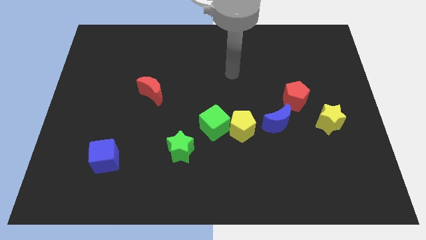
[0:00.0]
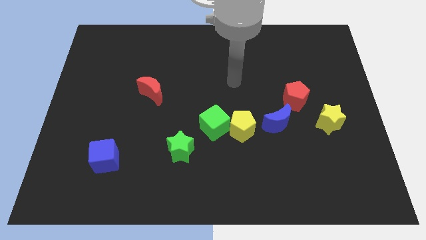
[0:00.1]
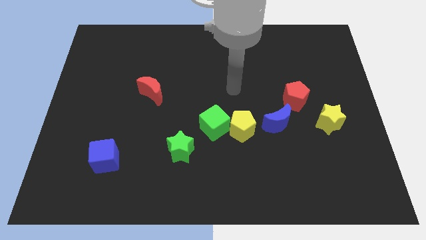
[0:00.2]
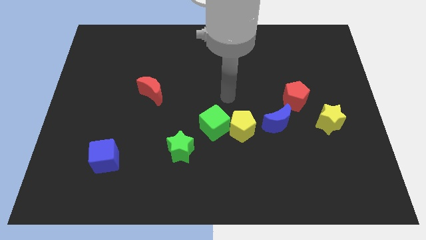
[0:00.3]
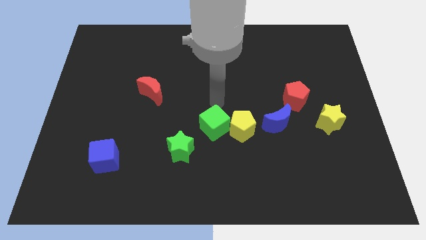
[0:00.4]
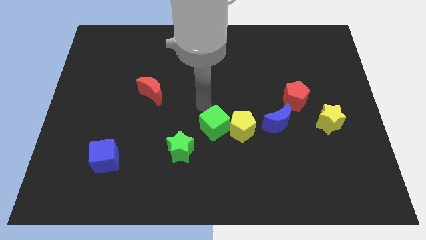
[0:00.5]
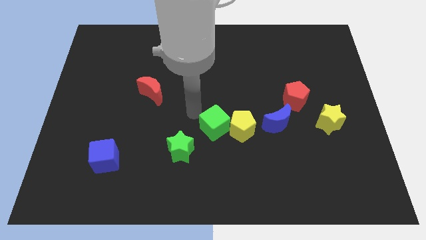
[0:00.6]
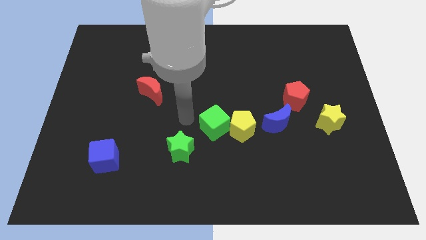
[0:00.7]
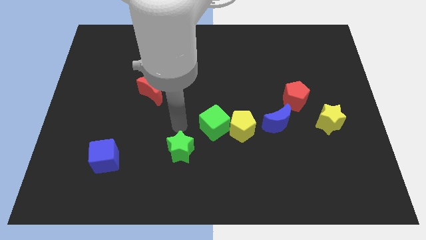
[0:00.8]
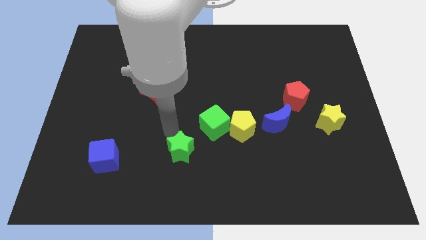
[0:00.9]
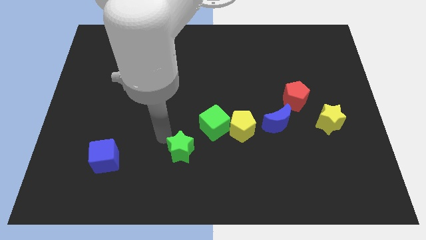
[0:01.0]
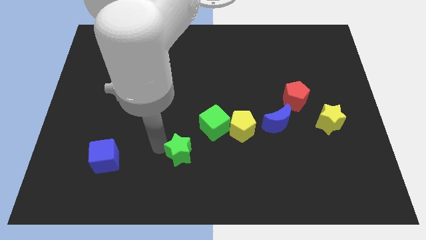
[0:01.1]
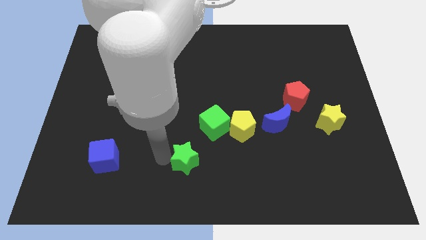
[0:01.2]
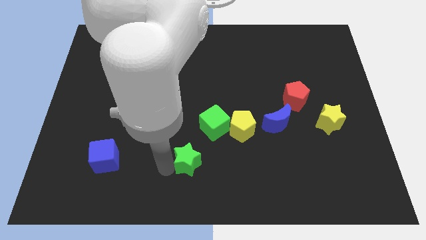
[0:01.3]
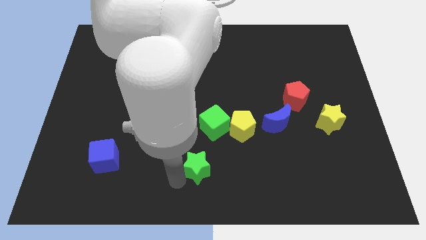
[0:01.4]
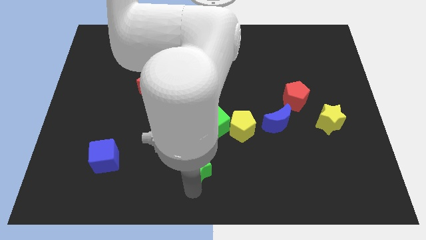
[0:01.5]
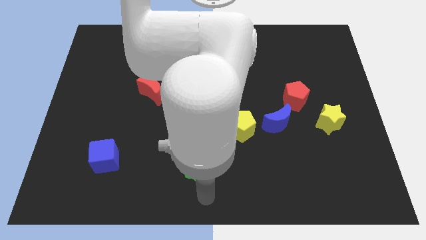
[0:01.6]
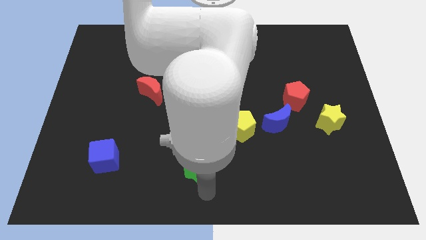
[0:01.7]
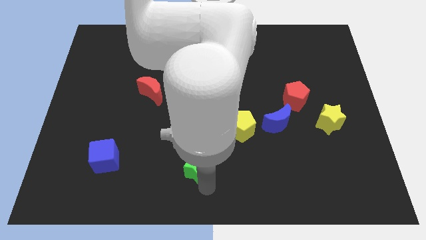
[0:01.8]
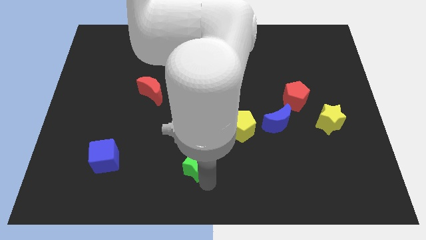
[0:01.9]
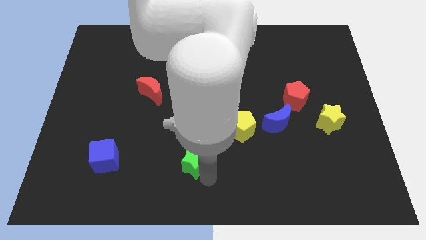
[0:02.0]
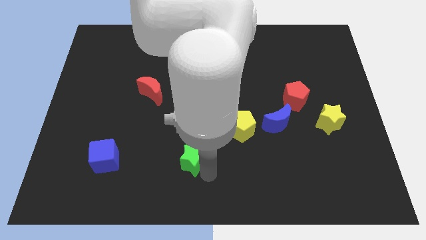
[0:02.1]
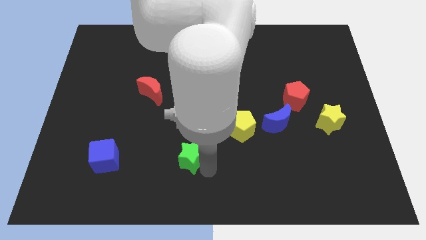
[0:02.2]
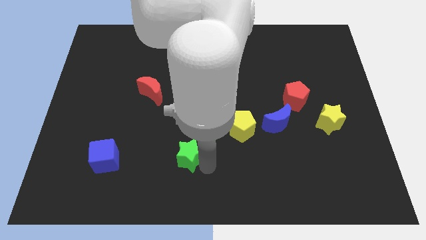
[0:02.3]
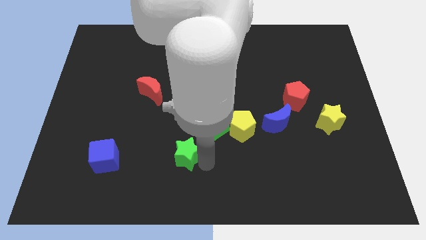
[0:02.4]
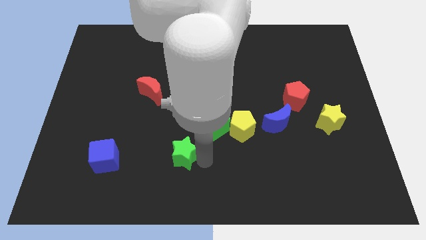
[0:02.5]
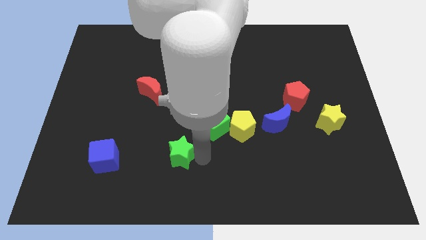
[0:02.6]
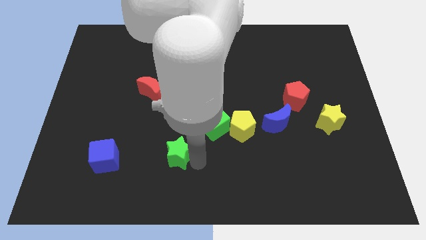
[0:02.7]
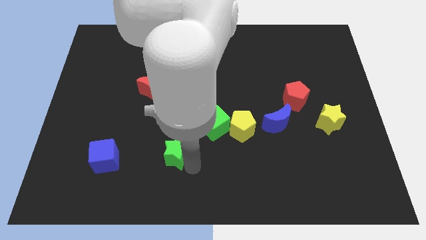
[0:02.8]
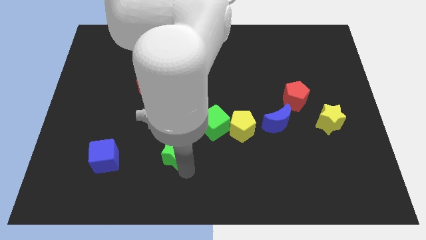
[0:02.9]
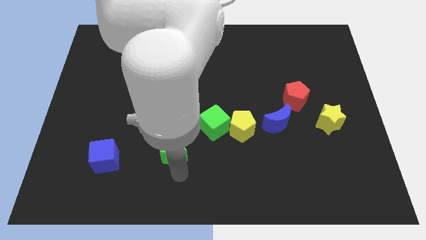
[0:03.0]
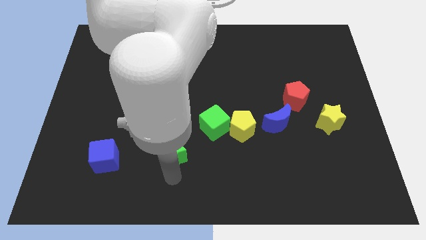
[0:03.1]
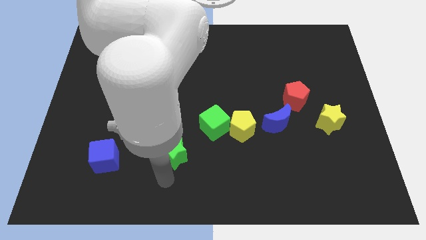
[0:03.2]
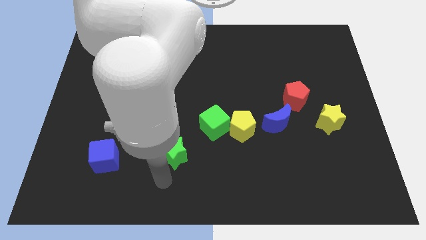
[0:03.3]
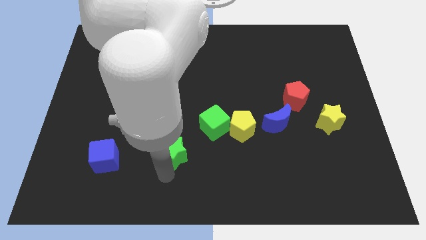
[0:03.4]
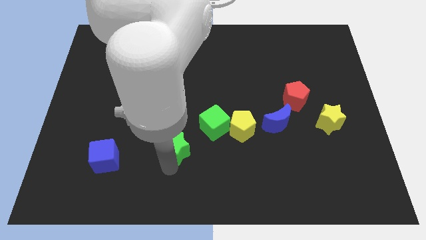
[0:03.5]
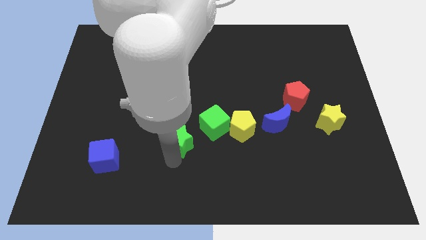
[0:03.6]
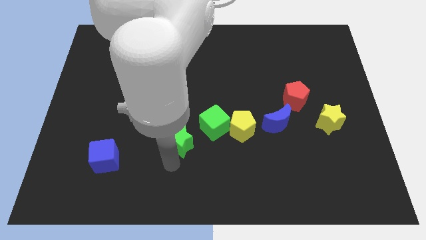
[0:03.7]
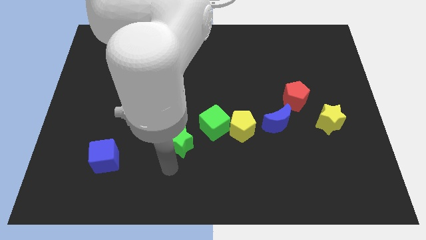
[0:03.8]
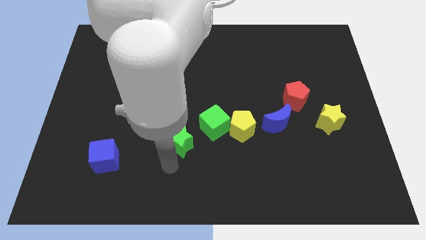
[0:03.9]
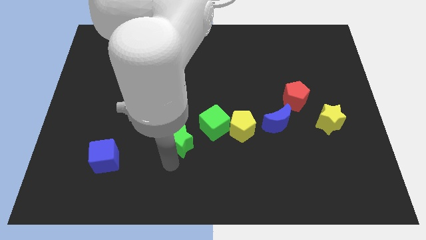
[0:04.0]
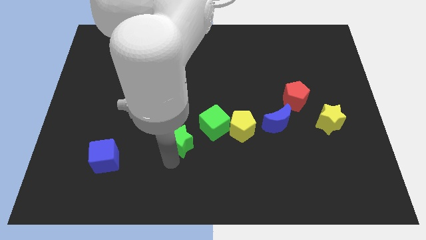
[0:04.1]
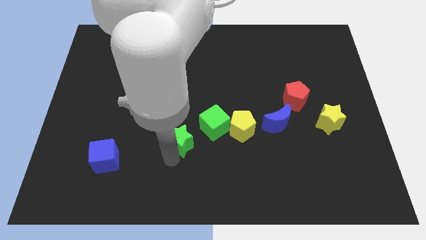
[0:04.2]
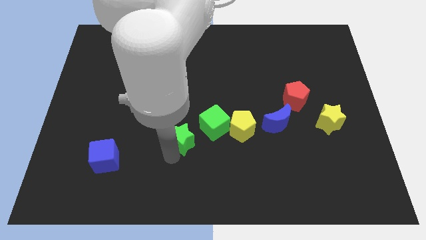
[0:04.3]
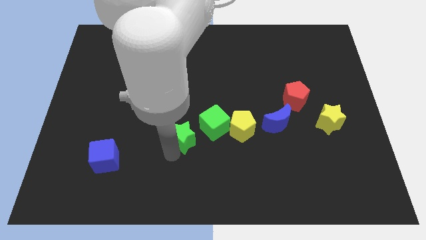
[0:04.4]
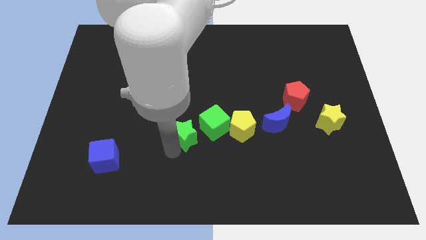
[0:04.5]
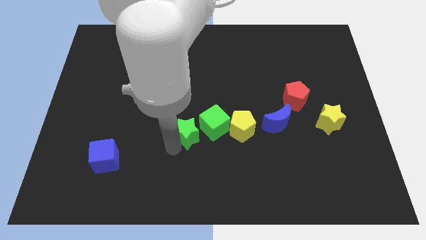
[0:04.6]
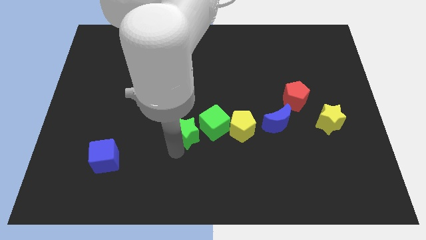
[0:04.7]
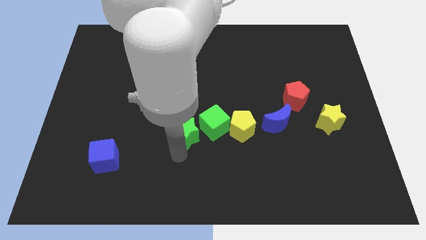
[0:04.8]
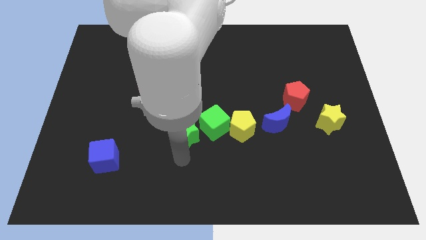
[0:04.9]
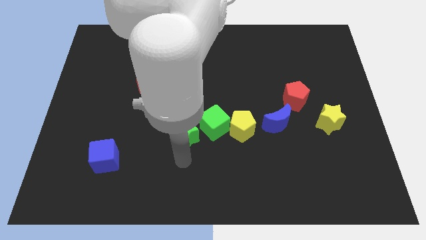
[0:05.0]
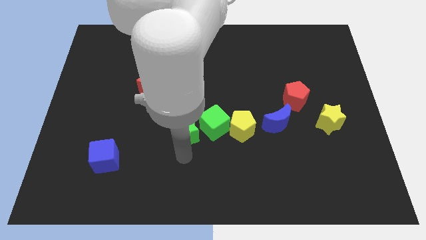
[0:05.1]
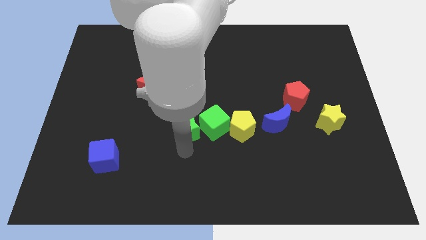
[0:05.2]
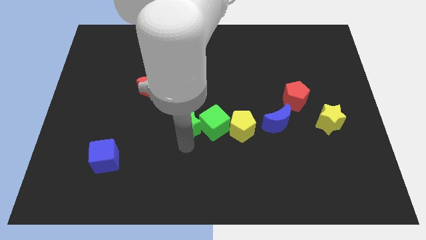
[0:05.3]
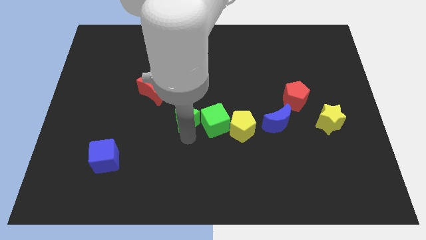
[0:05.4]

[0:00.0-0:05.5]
push the green star up a bit

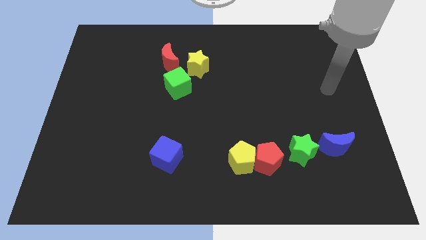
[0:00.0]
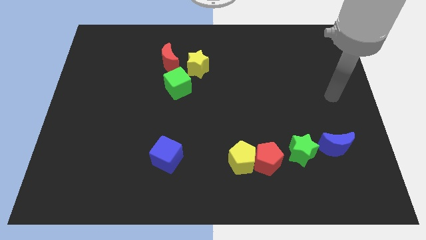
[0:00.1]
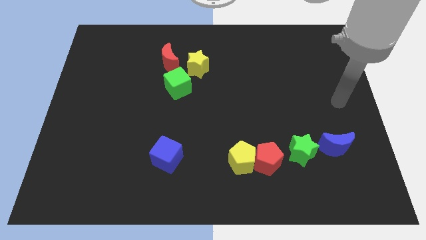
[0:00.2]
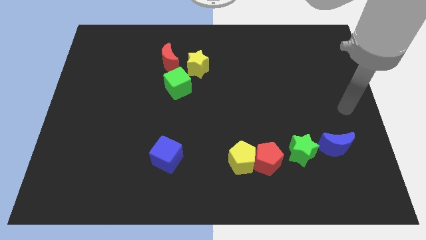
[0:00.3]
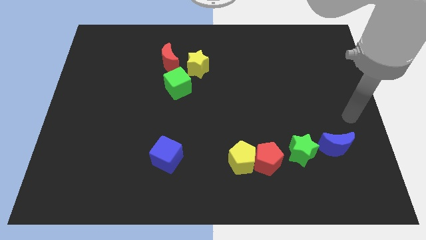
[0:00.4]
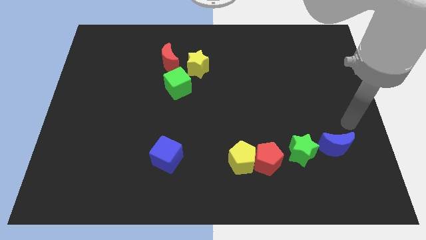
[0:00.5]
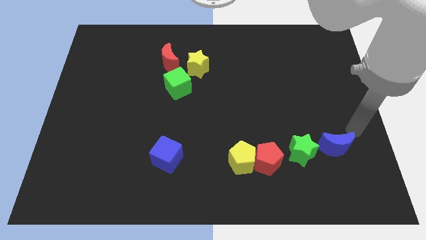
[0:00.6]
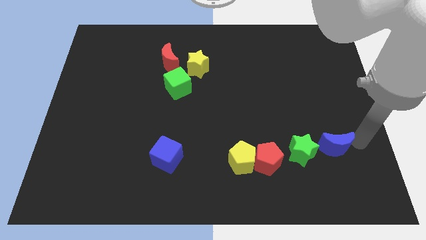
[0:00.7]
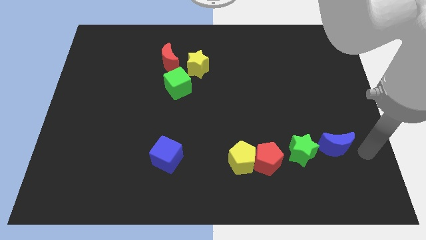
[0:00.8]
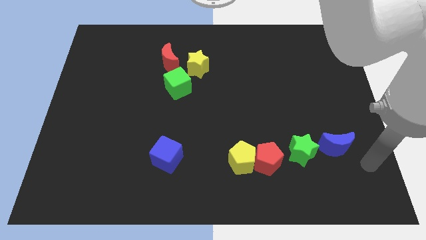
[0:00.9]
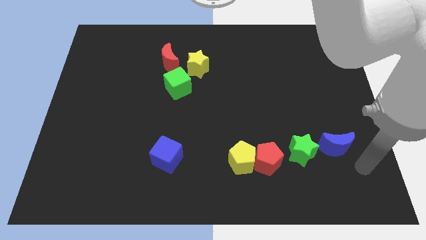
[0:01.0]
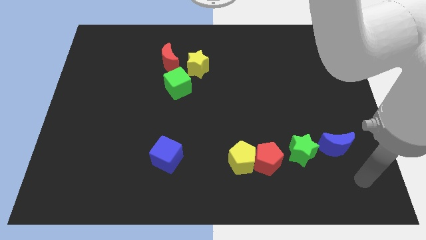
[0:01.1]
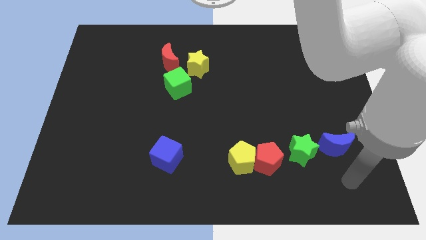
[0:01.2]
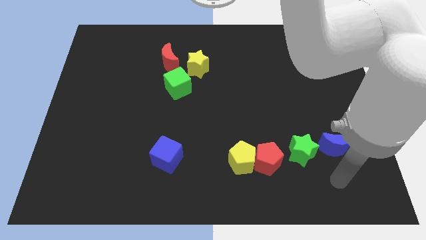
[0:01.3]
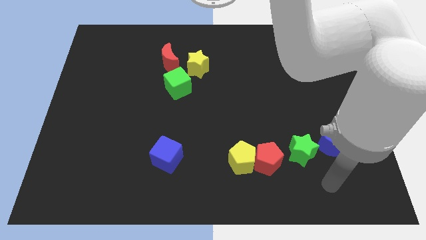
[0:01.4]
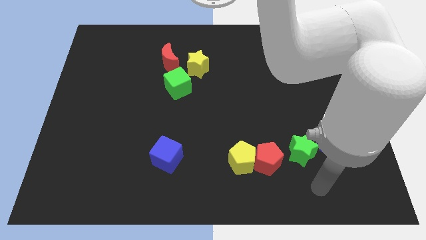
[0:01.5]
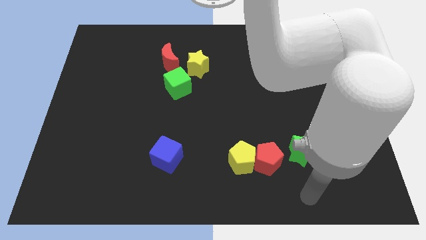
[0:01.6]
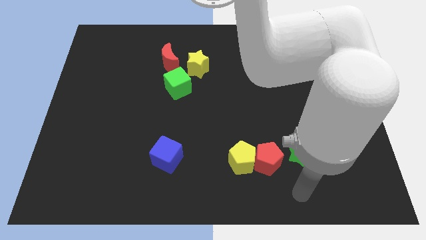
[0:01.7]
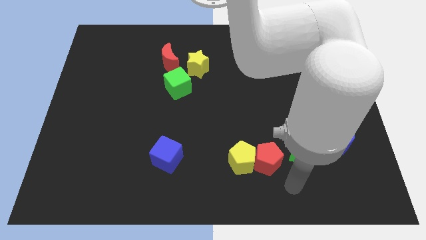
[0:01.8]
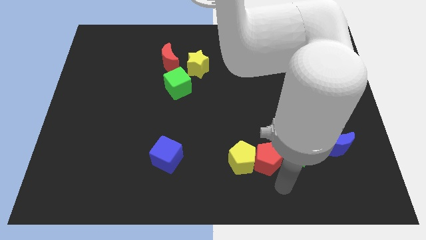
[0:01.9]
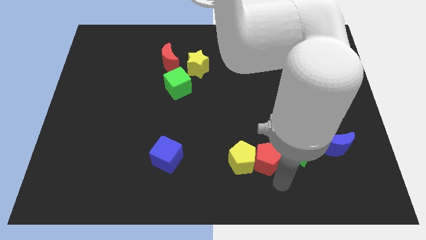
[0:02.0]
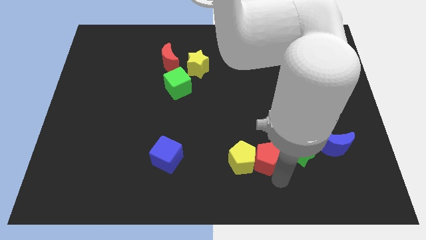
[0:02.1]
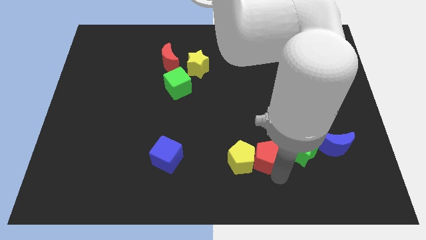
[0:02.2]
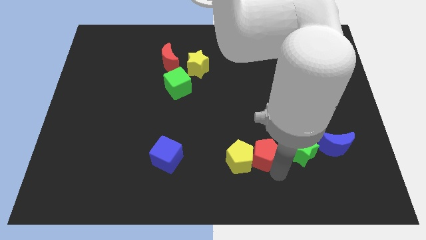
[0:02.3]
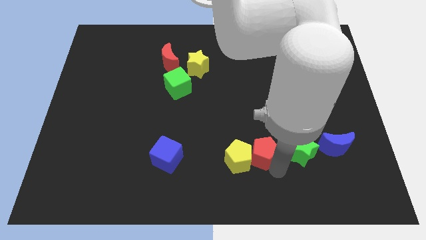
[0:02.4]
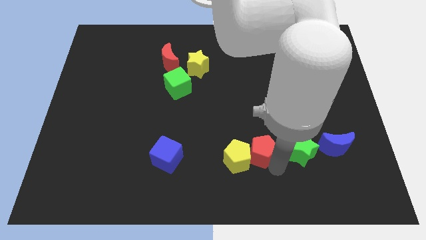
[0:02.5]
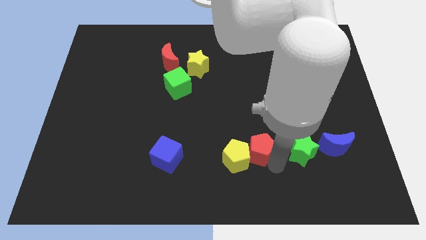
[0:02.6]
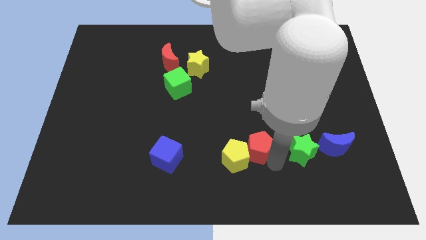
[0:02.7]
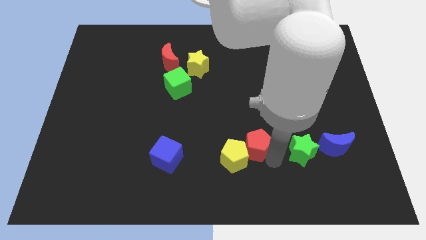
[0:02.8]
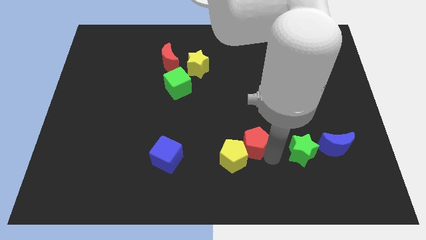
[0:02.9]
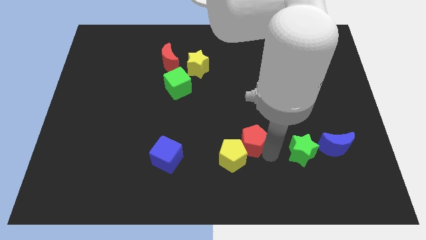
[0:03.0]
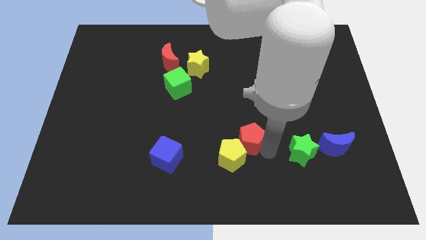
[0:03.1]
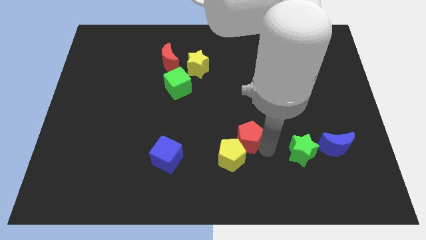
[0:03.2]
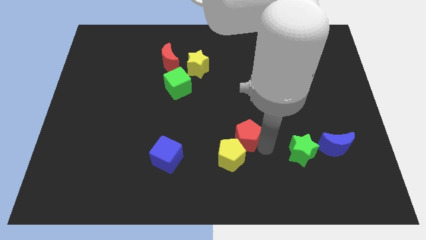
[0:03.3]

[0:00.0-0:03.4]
push the red pentagon a little upwards and left
